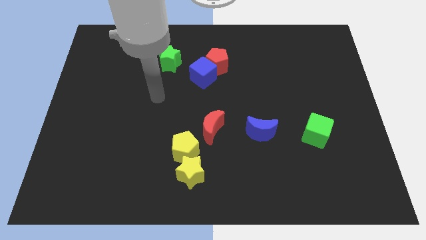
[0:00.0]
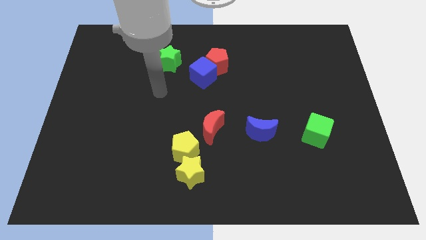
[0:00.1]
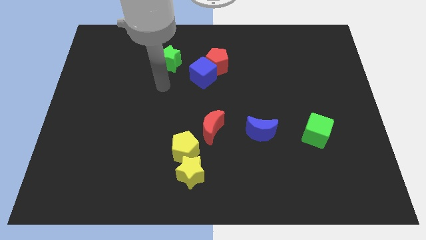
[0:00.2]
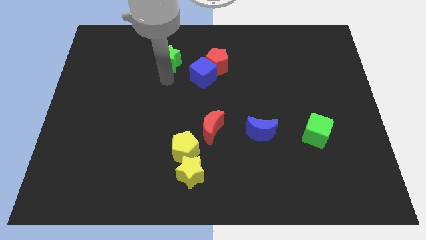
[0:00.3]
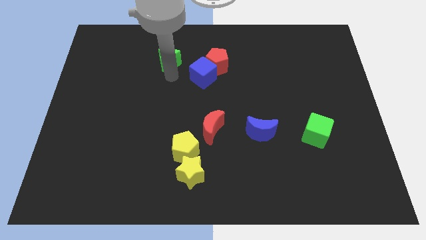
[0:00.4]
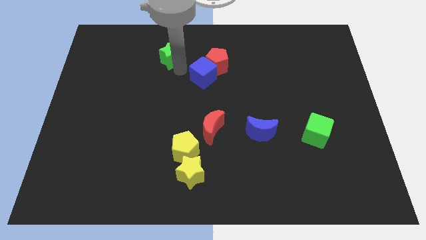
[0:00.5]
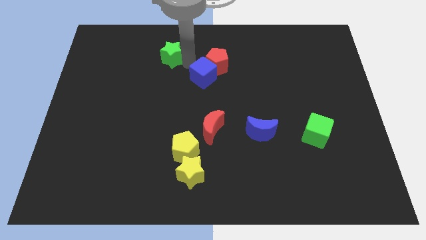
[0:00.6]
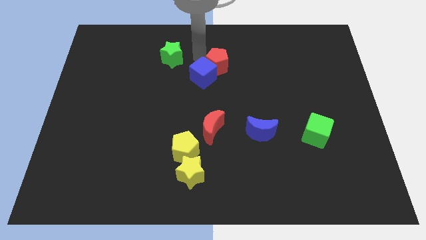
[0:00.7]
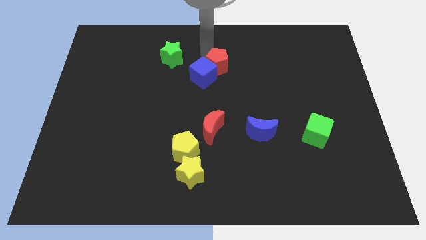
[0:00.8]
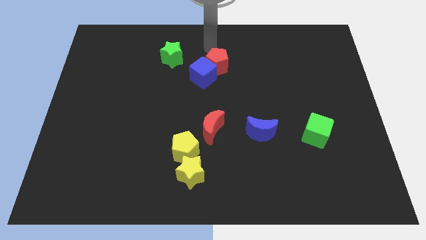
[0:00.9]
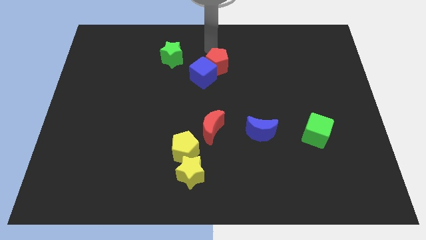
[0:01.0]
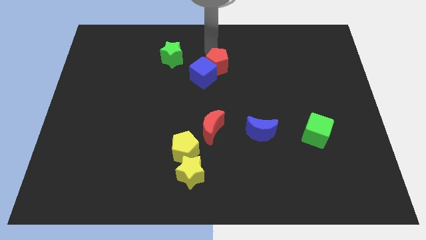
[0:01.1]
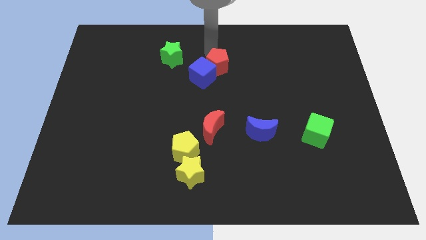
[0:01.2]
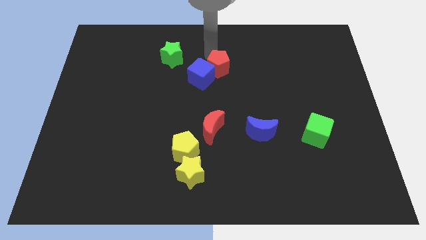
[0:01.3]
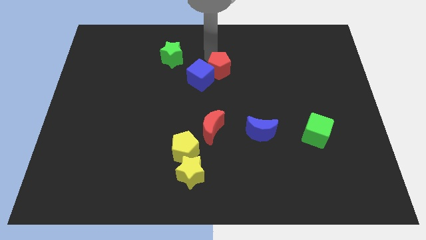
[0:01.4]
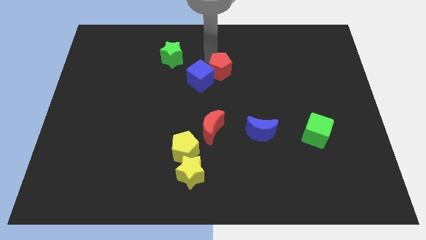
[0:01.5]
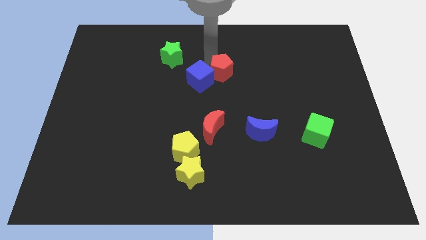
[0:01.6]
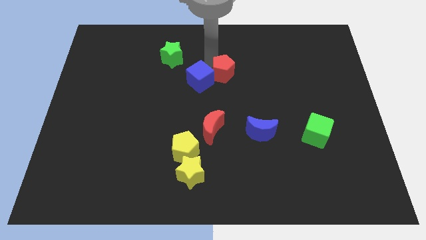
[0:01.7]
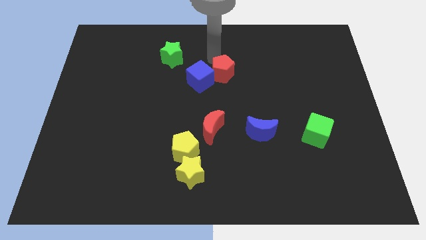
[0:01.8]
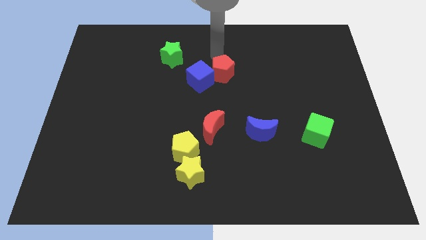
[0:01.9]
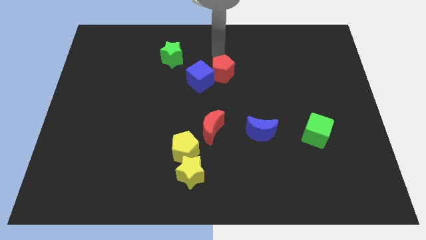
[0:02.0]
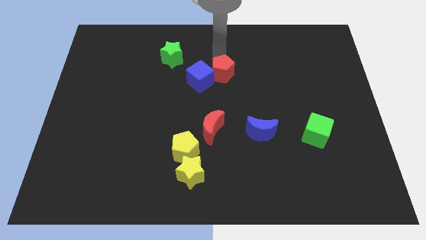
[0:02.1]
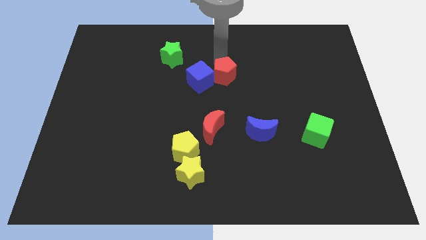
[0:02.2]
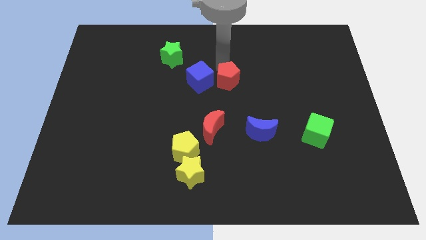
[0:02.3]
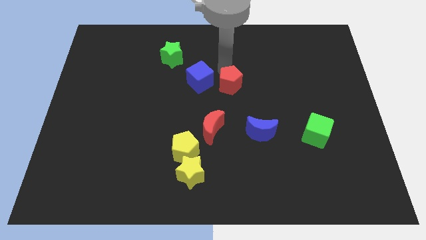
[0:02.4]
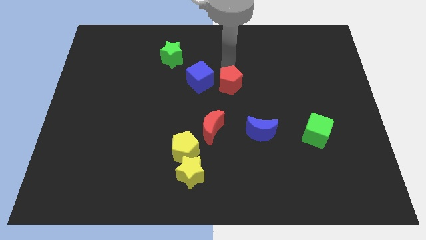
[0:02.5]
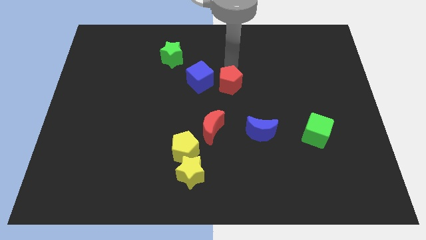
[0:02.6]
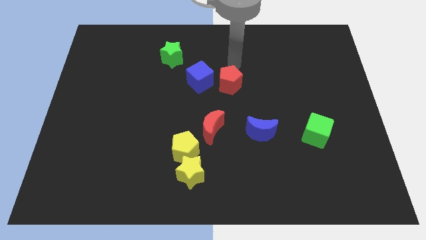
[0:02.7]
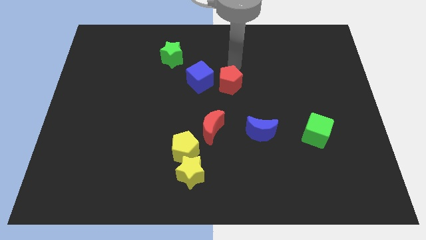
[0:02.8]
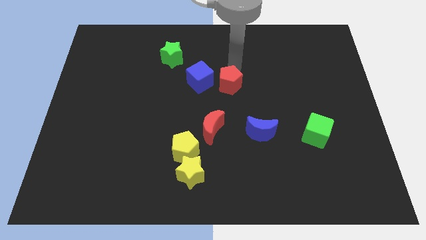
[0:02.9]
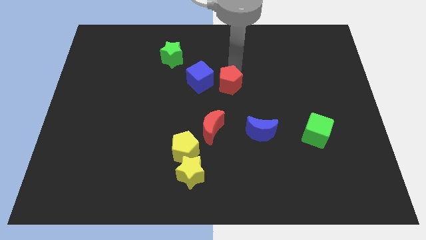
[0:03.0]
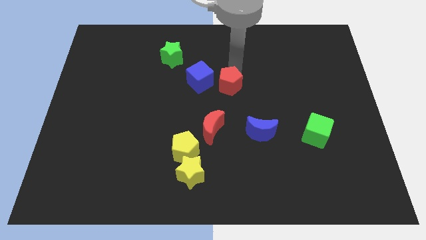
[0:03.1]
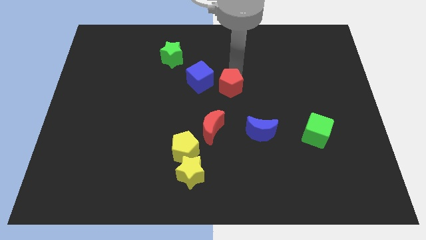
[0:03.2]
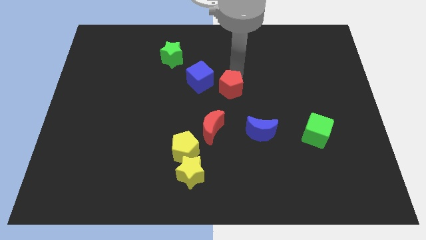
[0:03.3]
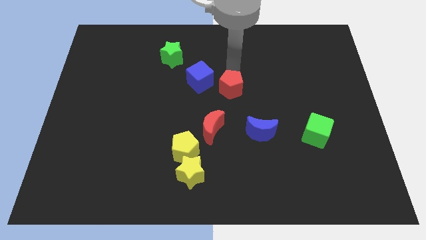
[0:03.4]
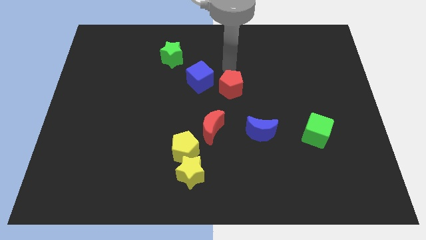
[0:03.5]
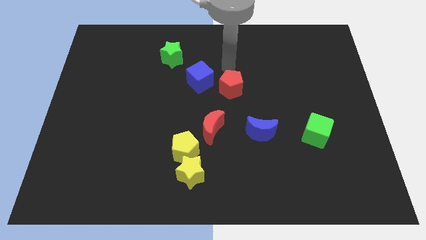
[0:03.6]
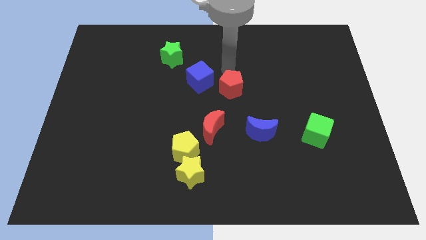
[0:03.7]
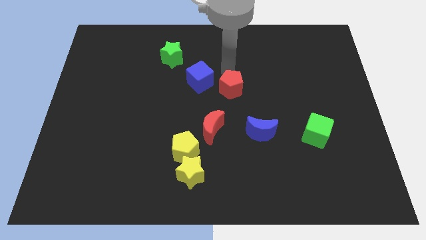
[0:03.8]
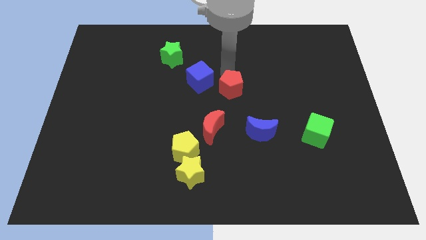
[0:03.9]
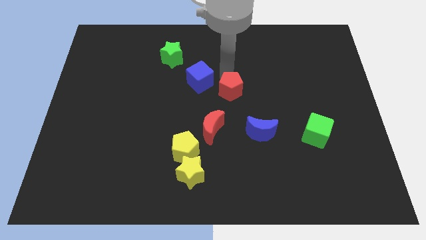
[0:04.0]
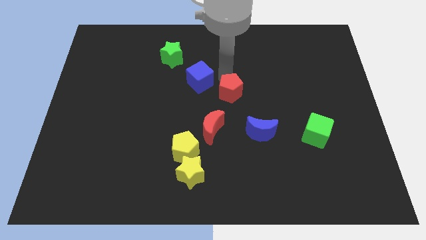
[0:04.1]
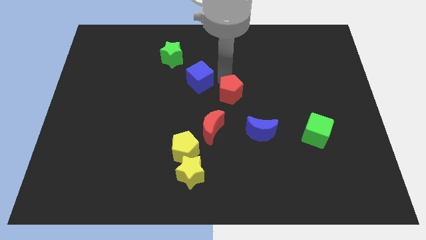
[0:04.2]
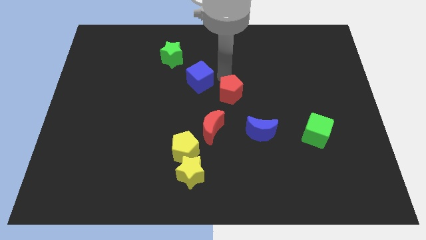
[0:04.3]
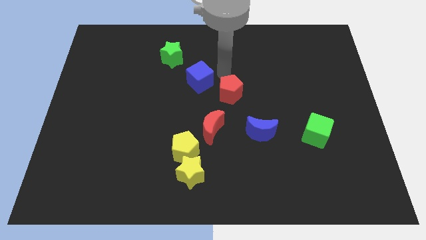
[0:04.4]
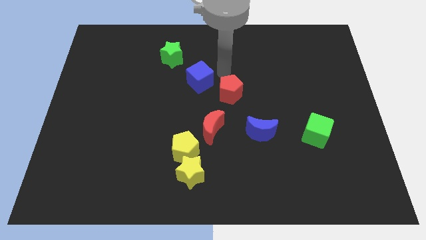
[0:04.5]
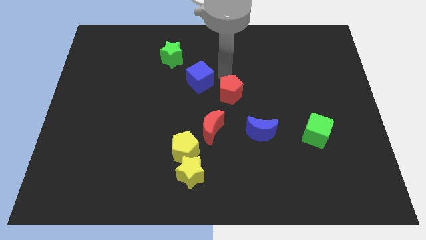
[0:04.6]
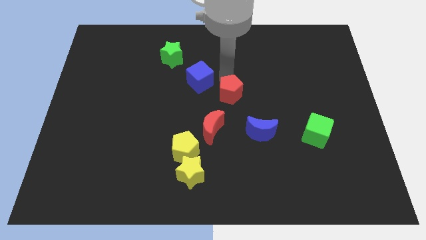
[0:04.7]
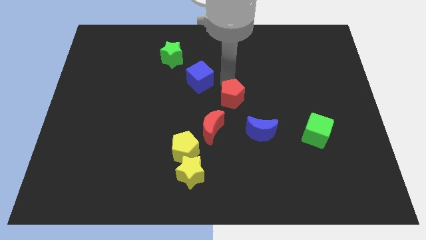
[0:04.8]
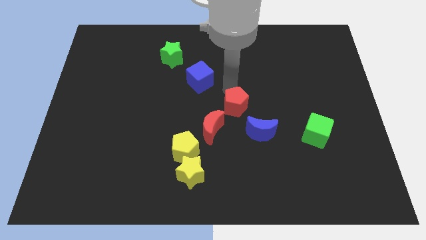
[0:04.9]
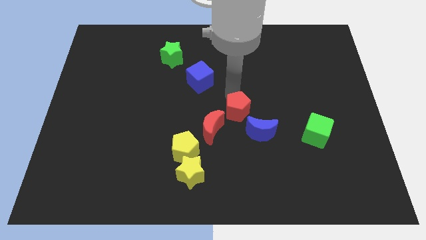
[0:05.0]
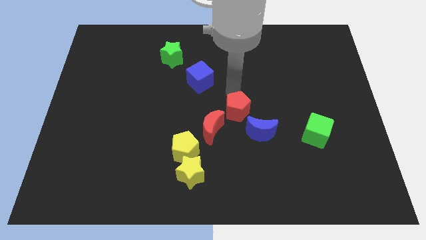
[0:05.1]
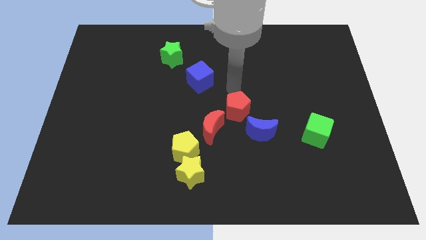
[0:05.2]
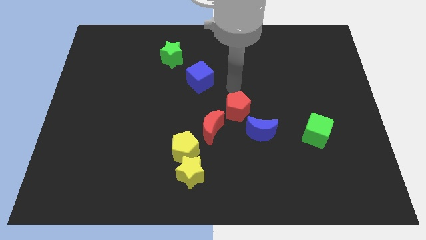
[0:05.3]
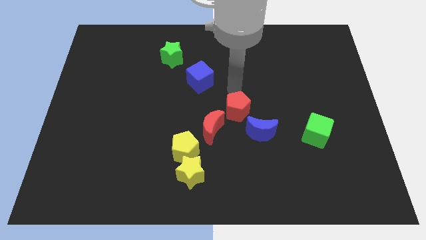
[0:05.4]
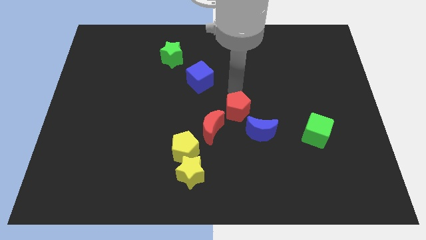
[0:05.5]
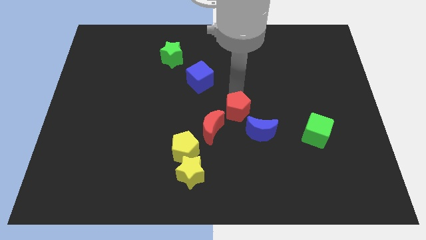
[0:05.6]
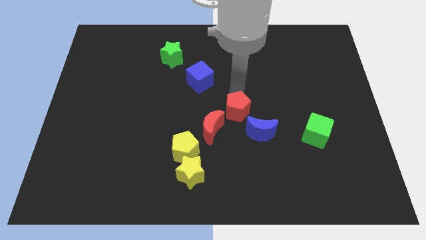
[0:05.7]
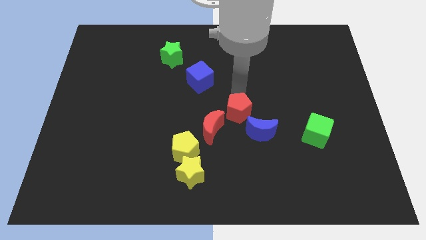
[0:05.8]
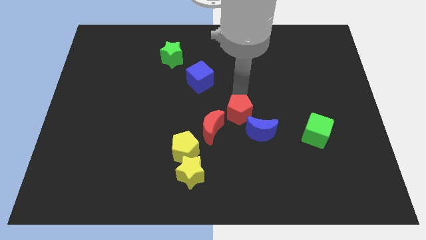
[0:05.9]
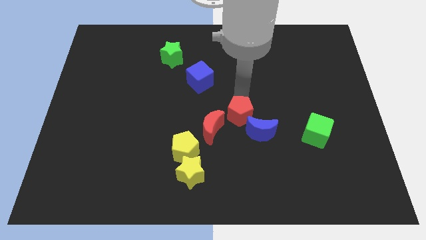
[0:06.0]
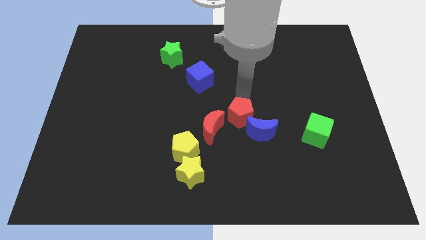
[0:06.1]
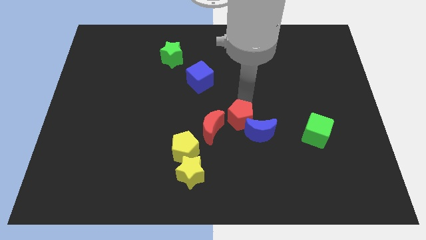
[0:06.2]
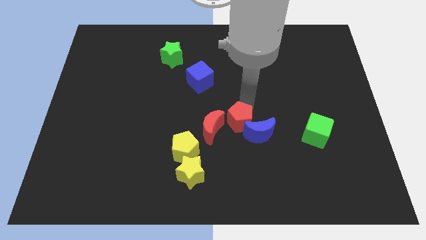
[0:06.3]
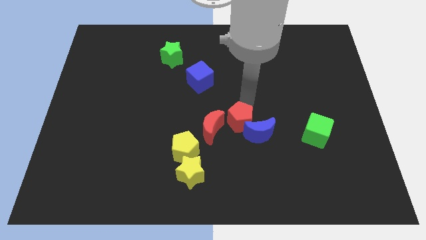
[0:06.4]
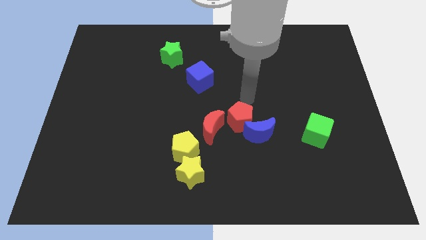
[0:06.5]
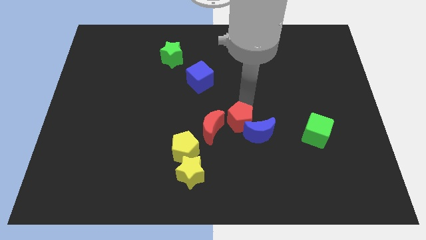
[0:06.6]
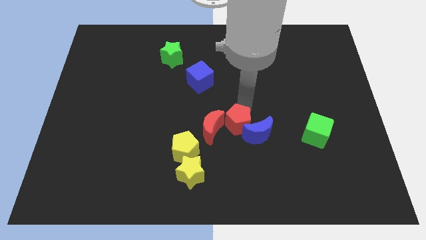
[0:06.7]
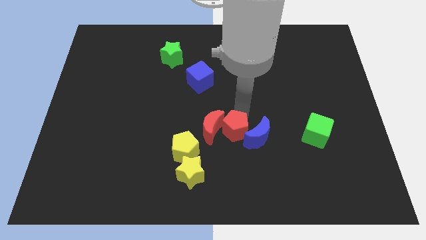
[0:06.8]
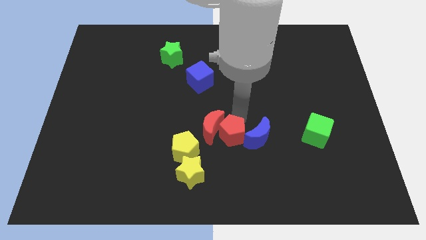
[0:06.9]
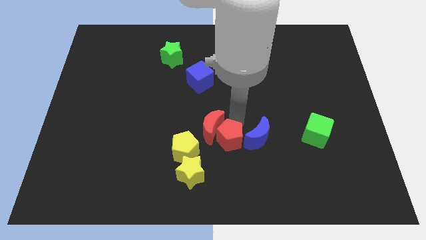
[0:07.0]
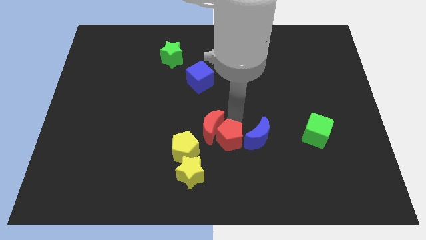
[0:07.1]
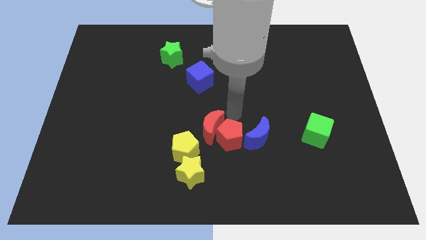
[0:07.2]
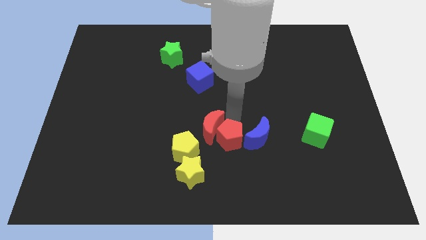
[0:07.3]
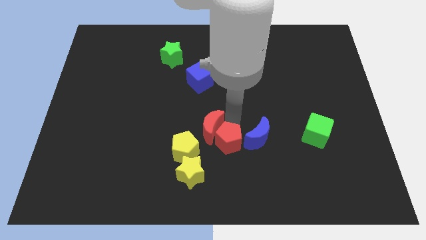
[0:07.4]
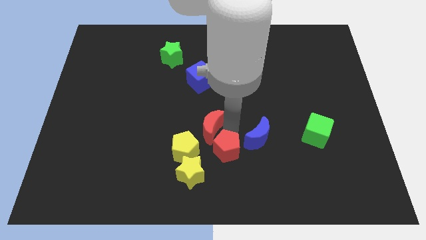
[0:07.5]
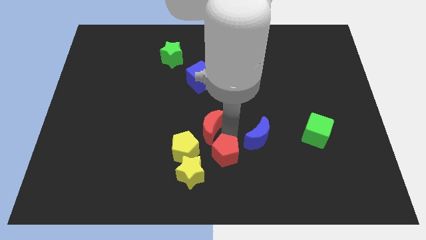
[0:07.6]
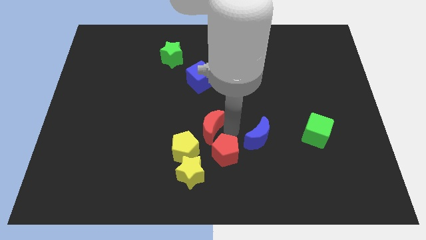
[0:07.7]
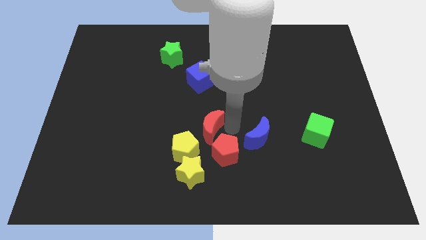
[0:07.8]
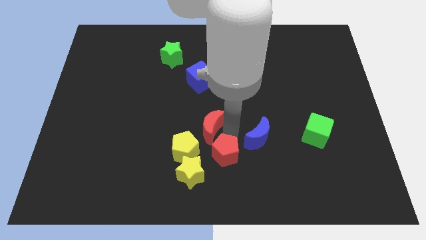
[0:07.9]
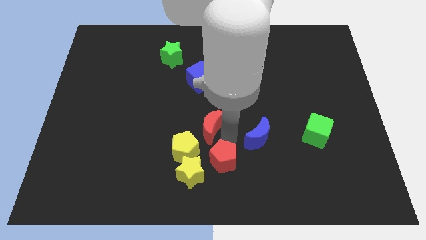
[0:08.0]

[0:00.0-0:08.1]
move the red pentagon to the bottom
